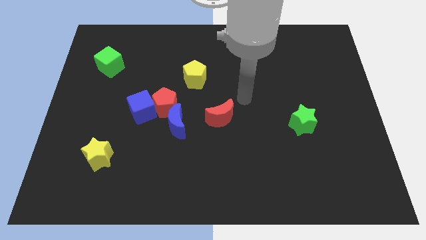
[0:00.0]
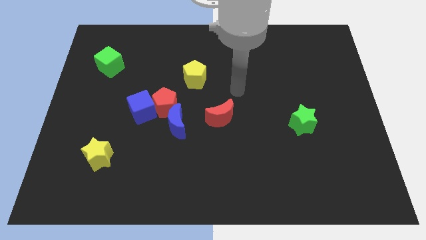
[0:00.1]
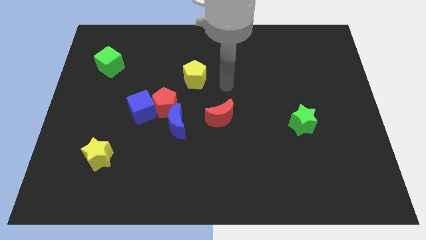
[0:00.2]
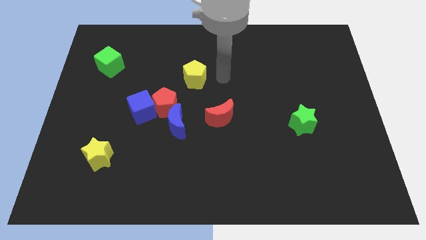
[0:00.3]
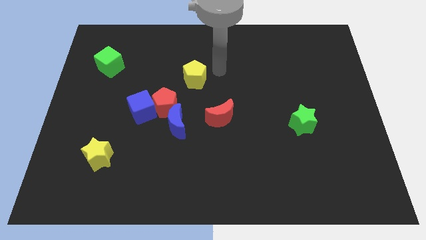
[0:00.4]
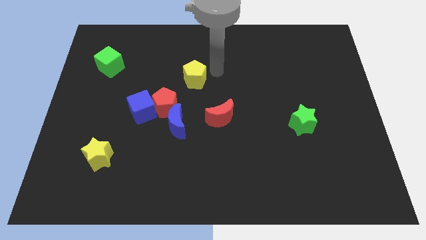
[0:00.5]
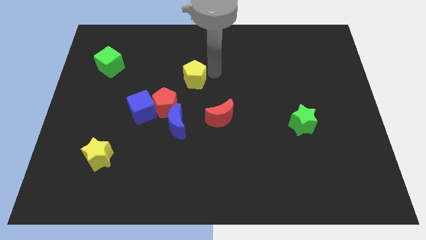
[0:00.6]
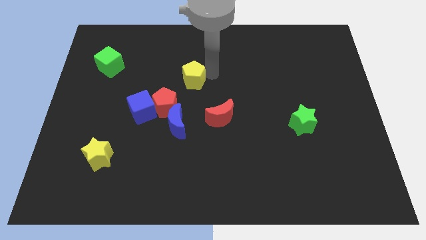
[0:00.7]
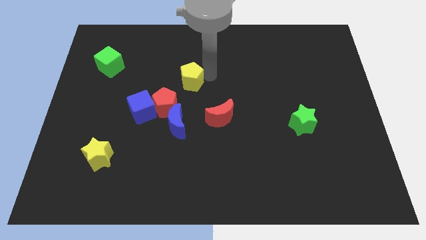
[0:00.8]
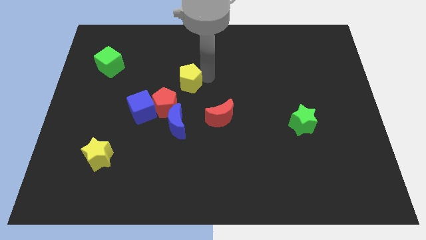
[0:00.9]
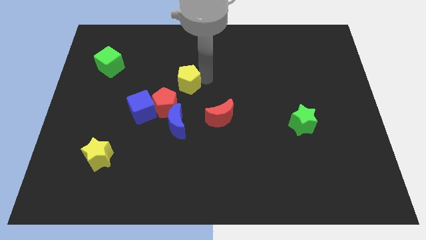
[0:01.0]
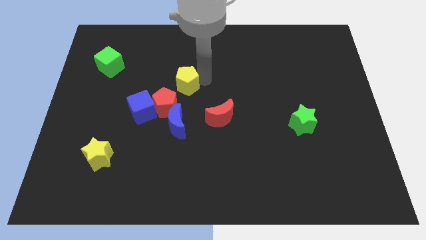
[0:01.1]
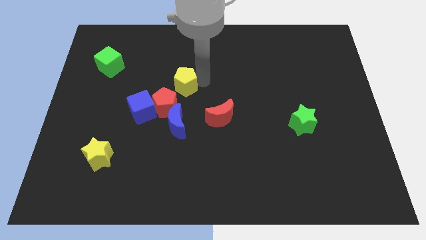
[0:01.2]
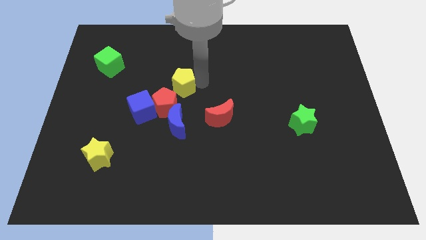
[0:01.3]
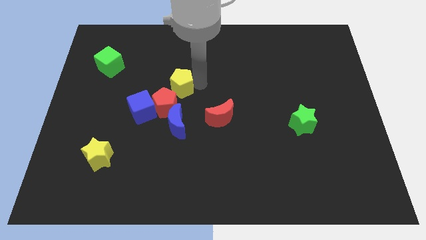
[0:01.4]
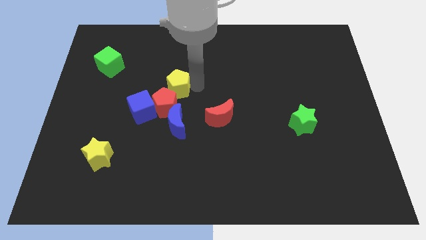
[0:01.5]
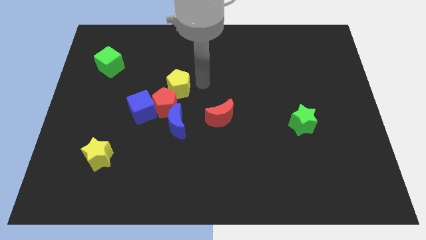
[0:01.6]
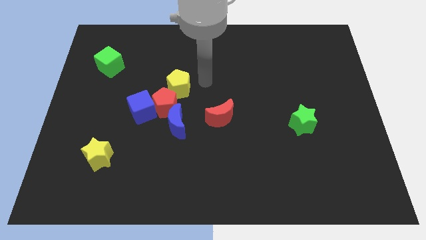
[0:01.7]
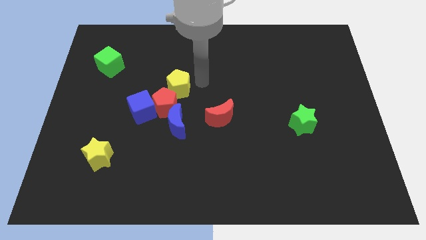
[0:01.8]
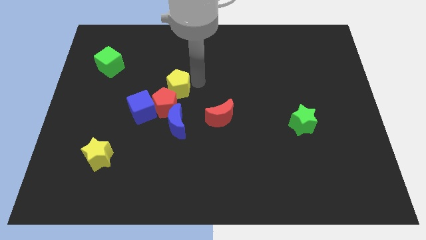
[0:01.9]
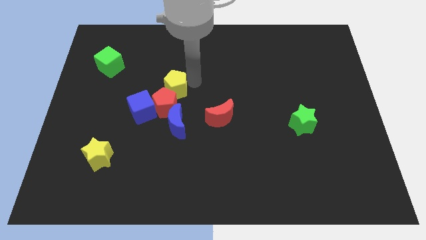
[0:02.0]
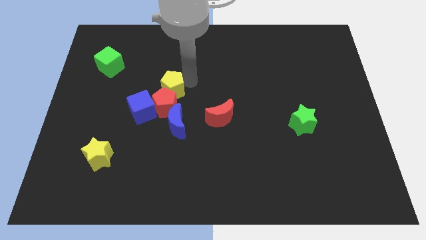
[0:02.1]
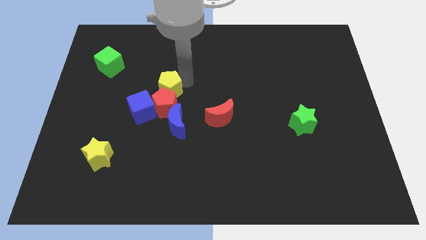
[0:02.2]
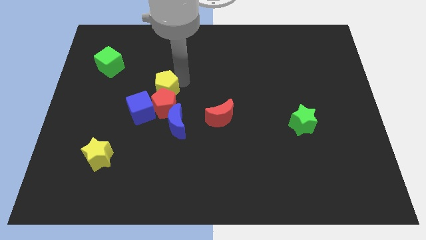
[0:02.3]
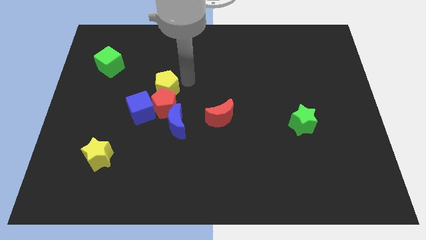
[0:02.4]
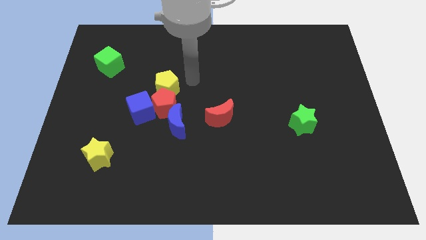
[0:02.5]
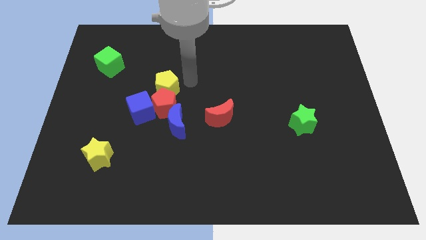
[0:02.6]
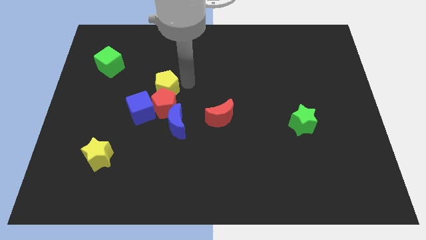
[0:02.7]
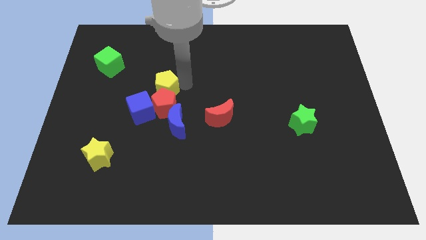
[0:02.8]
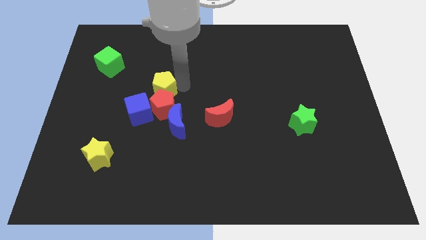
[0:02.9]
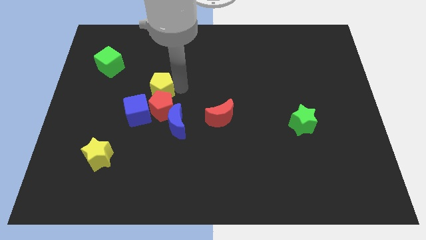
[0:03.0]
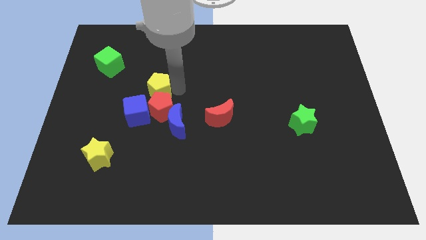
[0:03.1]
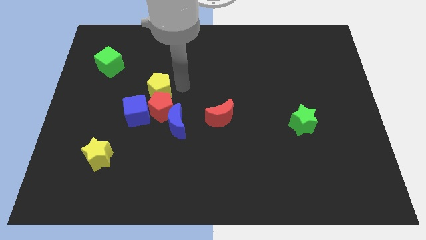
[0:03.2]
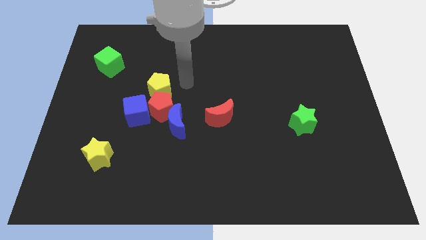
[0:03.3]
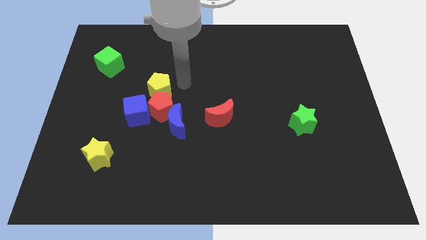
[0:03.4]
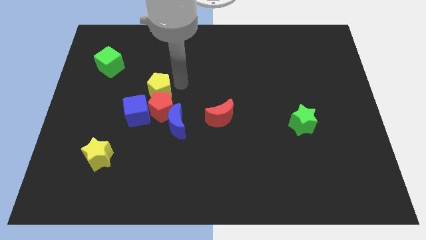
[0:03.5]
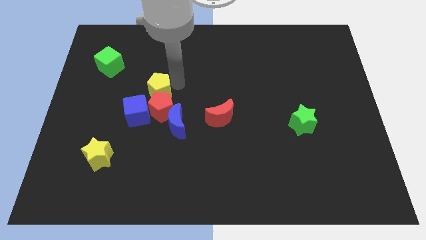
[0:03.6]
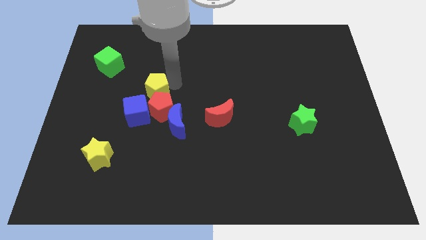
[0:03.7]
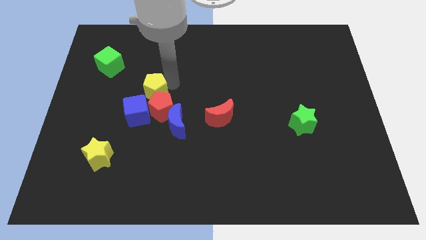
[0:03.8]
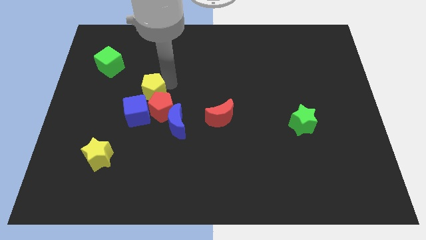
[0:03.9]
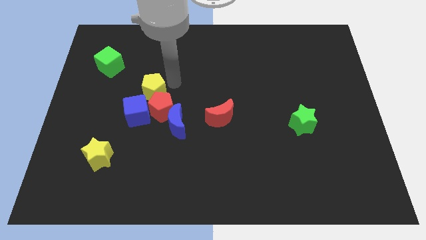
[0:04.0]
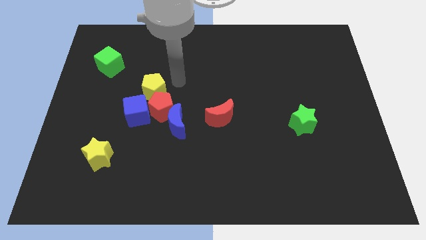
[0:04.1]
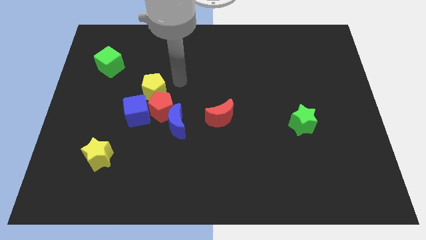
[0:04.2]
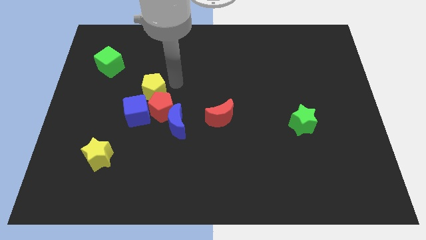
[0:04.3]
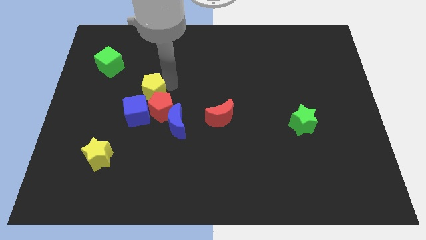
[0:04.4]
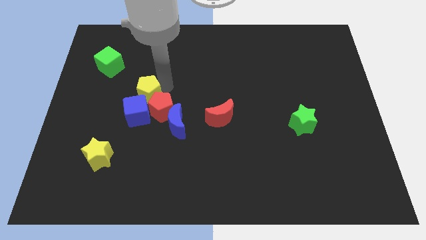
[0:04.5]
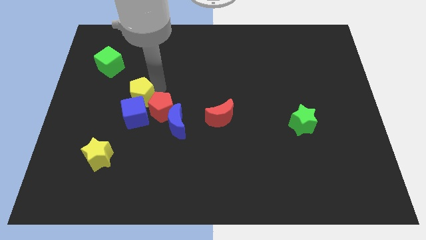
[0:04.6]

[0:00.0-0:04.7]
move the yellow pentagon towards the blue cube

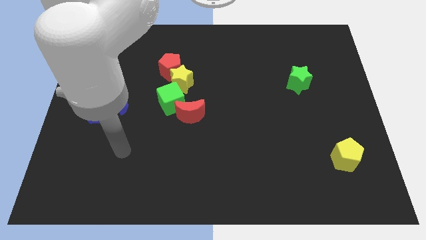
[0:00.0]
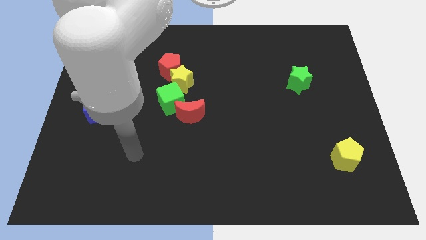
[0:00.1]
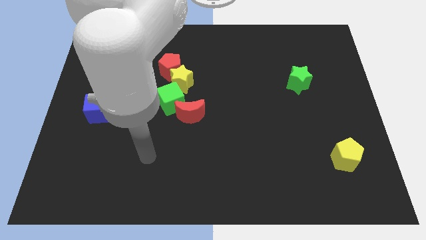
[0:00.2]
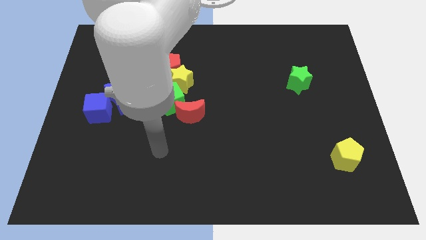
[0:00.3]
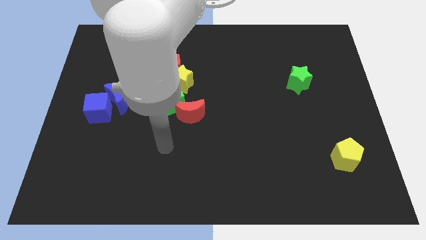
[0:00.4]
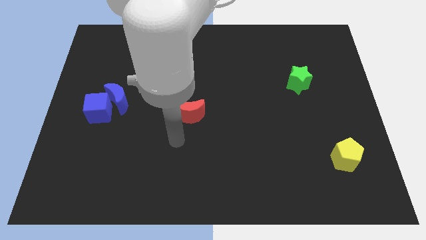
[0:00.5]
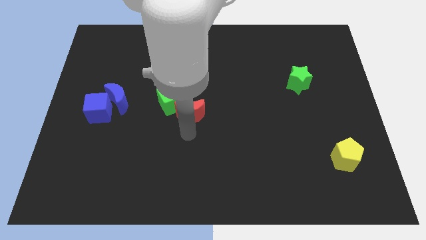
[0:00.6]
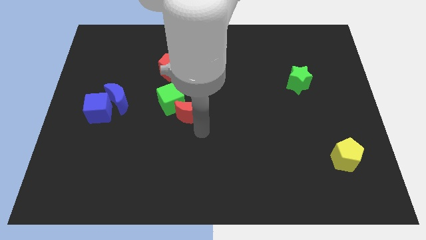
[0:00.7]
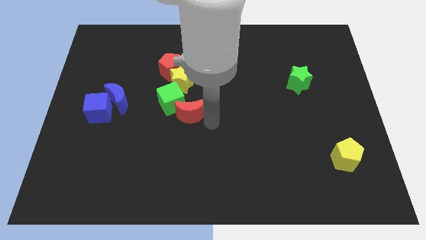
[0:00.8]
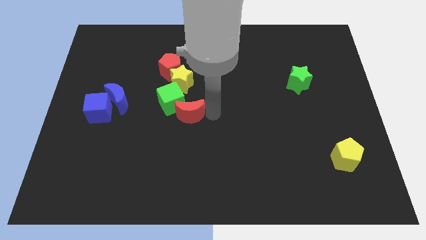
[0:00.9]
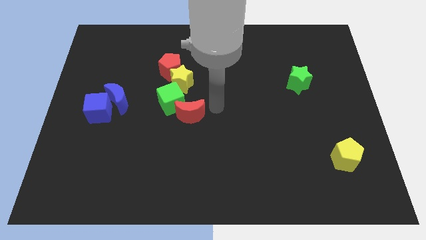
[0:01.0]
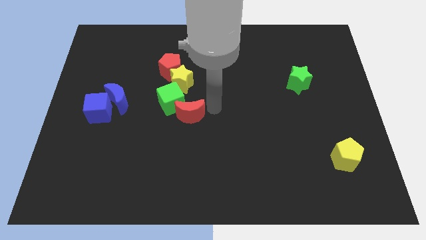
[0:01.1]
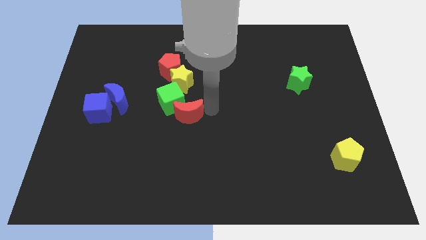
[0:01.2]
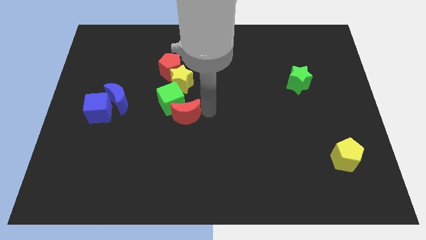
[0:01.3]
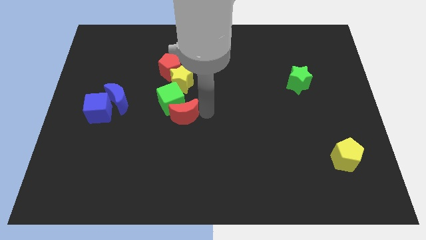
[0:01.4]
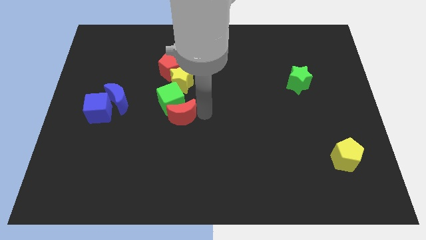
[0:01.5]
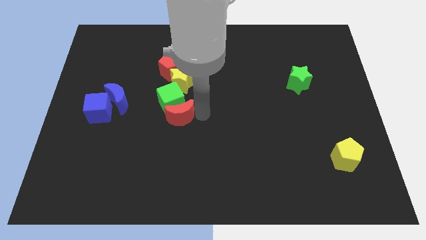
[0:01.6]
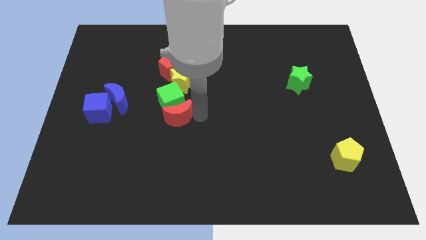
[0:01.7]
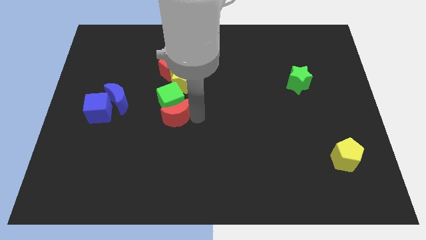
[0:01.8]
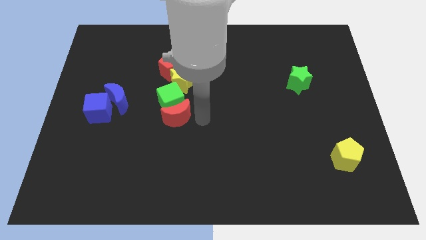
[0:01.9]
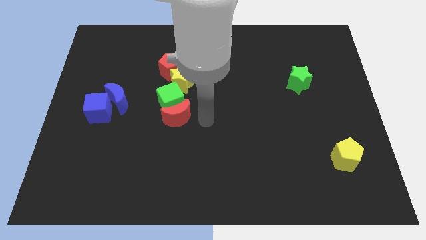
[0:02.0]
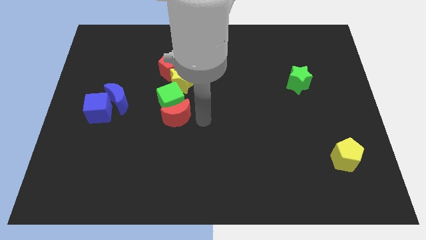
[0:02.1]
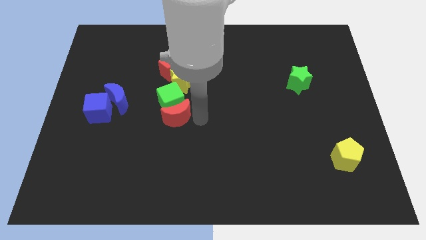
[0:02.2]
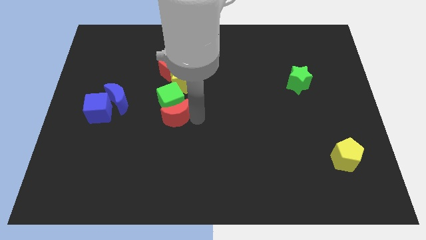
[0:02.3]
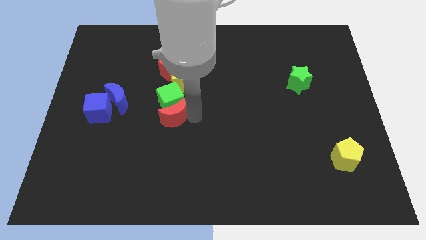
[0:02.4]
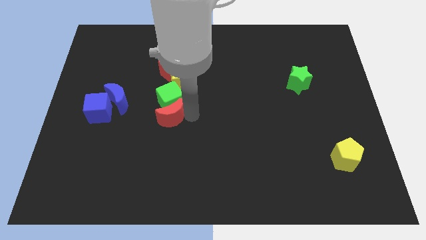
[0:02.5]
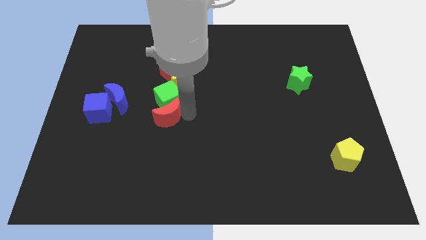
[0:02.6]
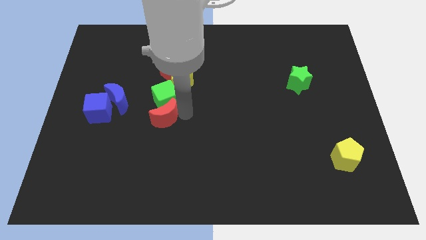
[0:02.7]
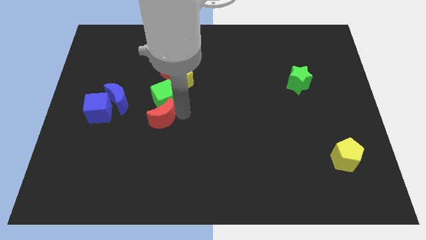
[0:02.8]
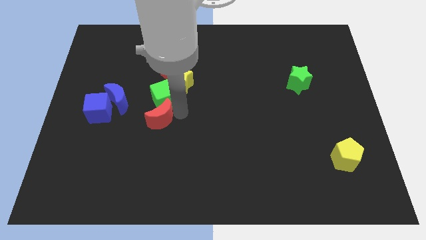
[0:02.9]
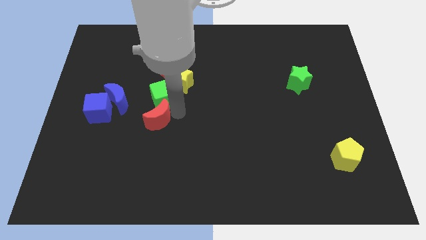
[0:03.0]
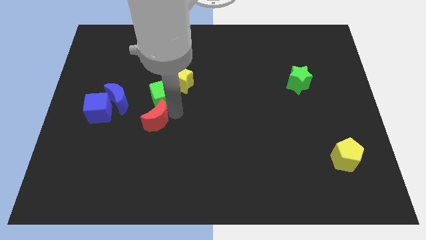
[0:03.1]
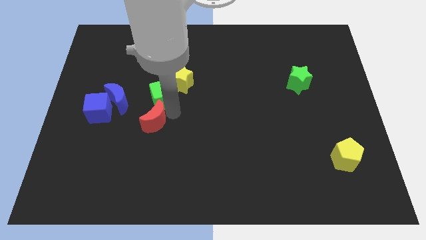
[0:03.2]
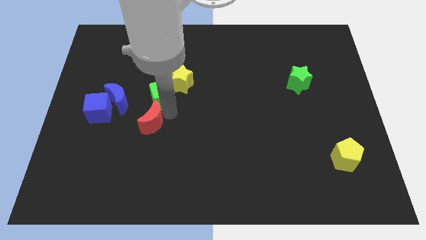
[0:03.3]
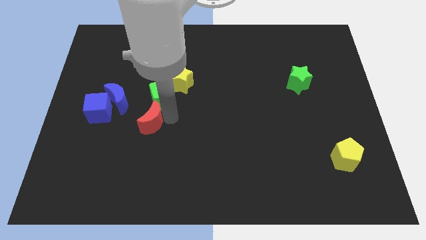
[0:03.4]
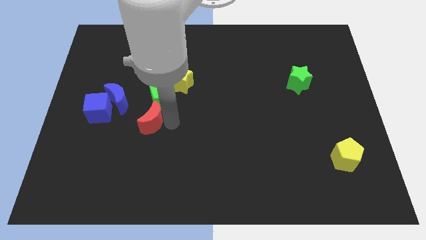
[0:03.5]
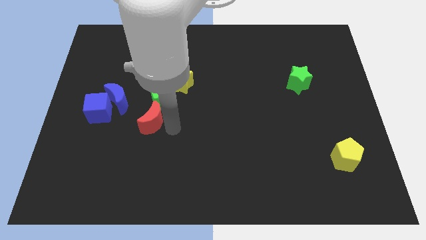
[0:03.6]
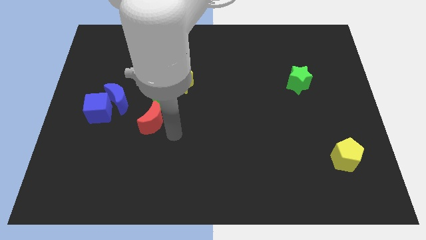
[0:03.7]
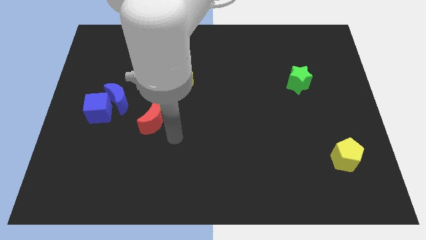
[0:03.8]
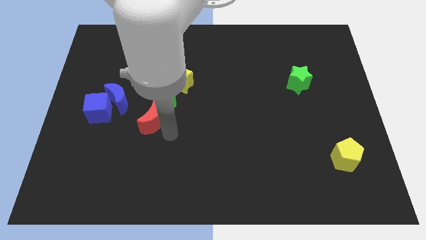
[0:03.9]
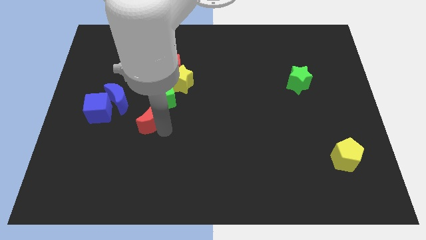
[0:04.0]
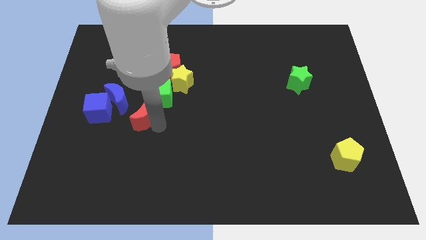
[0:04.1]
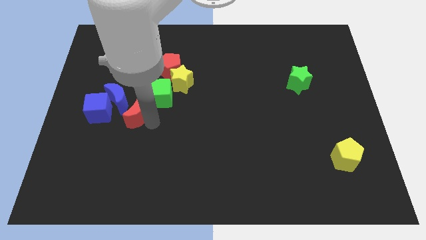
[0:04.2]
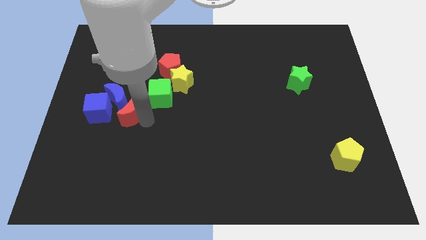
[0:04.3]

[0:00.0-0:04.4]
slide the red moon close to the blue moon
